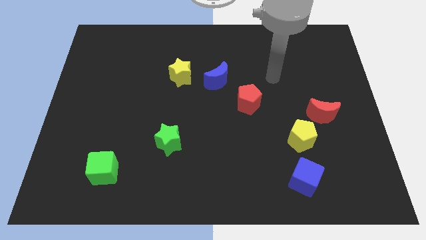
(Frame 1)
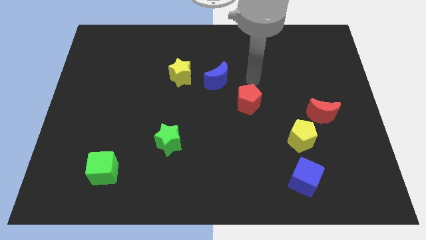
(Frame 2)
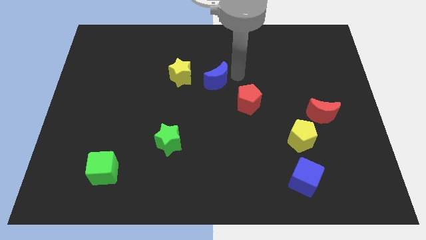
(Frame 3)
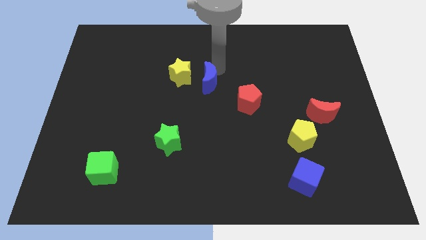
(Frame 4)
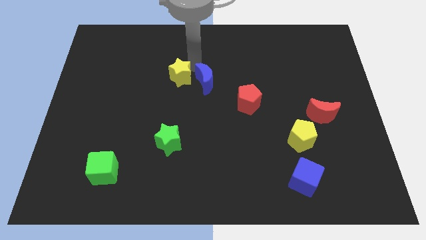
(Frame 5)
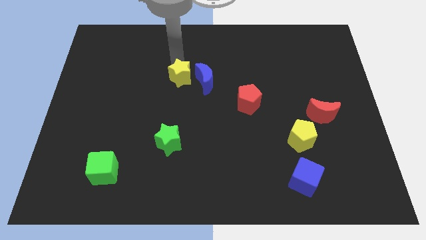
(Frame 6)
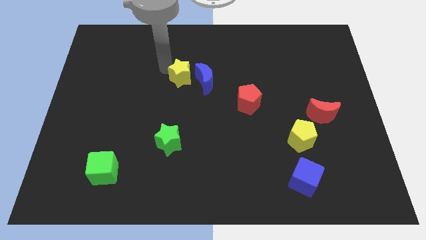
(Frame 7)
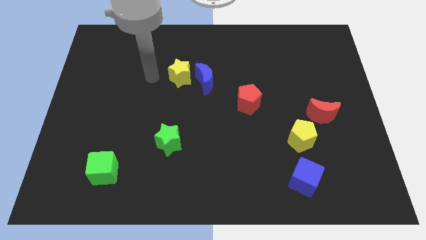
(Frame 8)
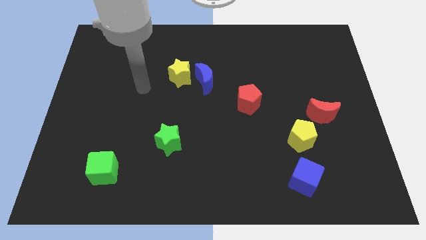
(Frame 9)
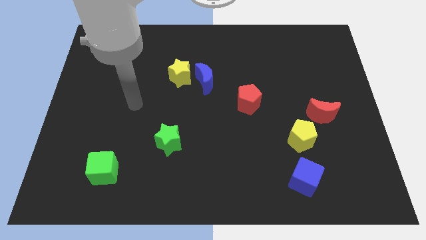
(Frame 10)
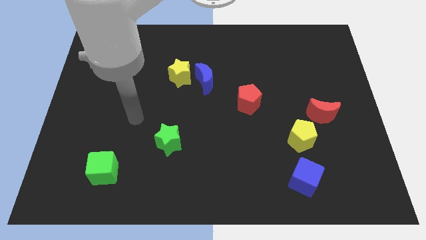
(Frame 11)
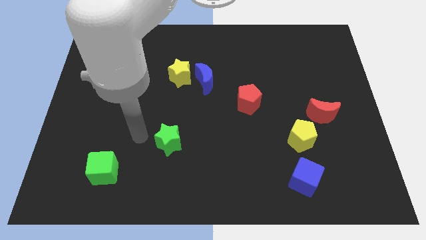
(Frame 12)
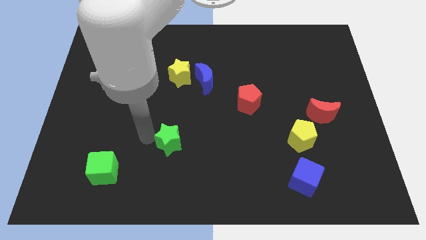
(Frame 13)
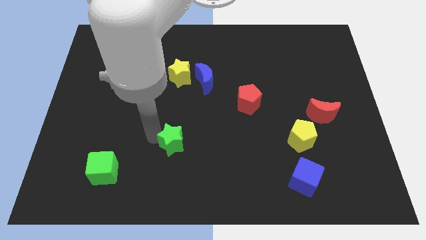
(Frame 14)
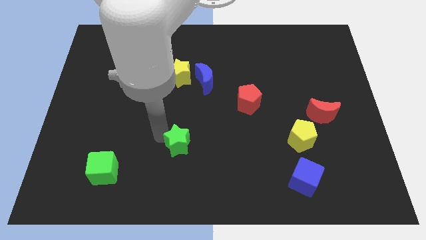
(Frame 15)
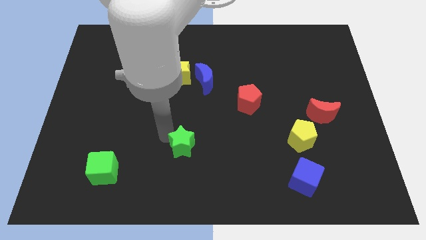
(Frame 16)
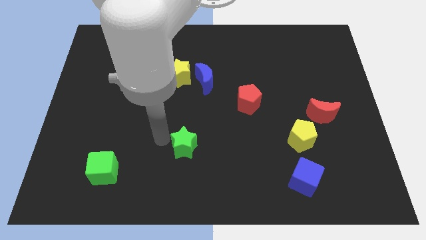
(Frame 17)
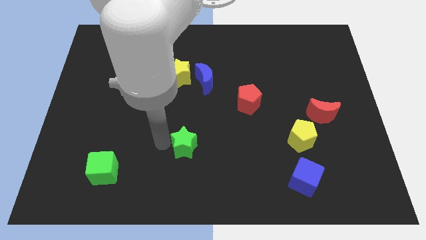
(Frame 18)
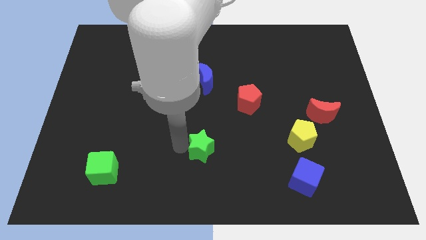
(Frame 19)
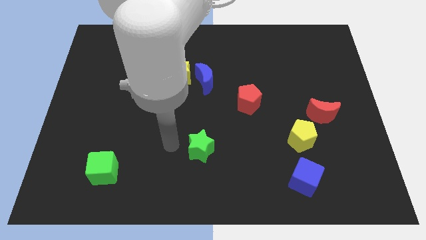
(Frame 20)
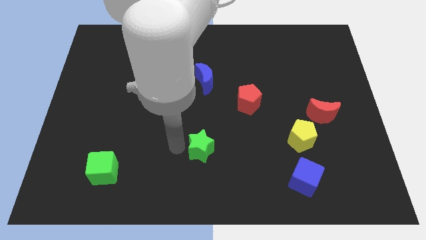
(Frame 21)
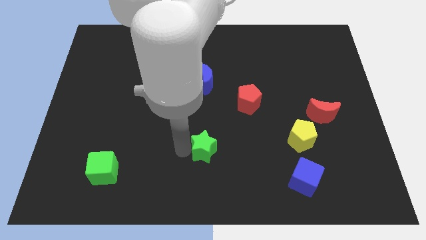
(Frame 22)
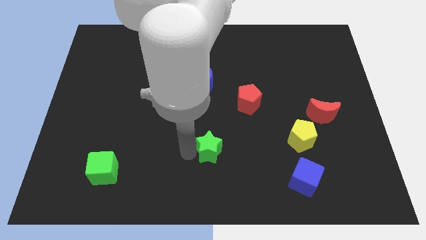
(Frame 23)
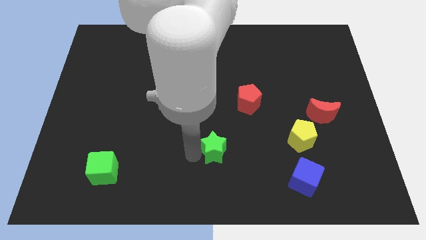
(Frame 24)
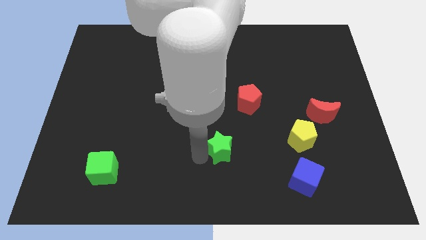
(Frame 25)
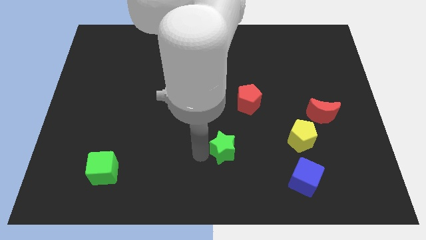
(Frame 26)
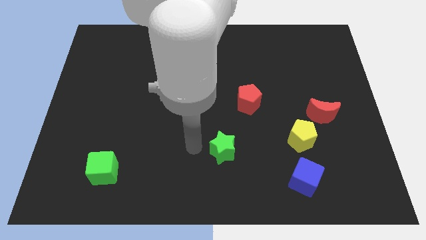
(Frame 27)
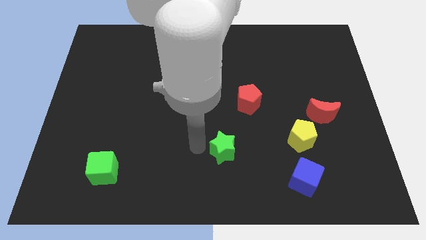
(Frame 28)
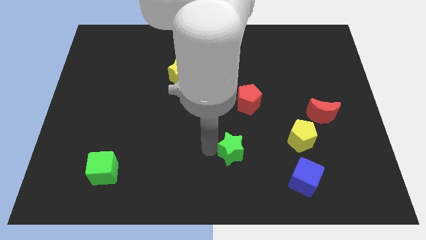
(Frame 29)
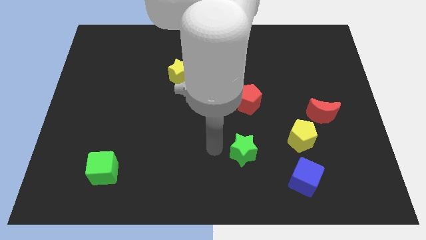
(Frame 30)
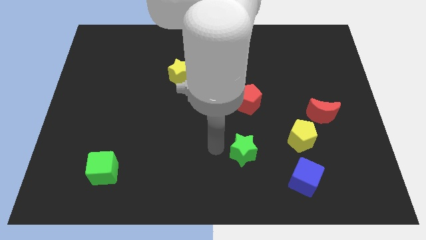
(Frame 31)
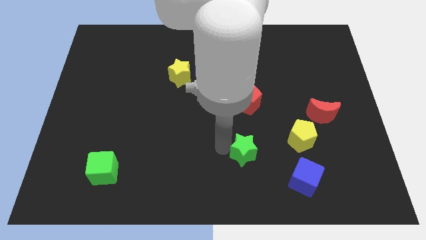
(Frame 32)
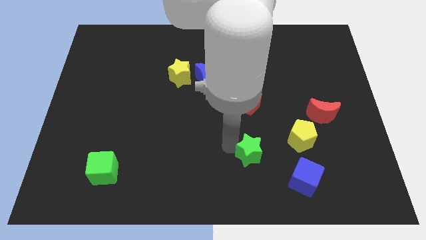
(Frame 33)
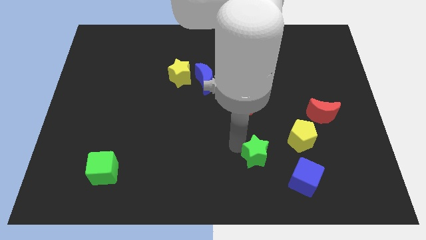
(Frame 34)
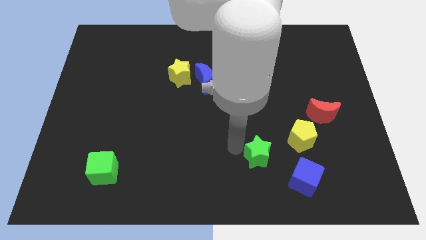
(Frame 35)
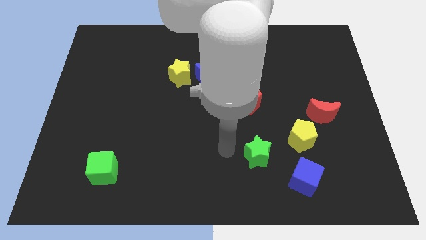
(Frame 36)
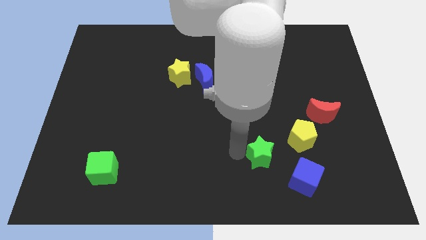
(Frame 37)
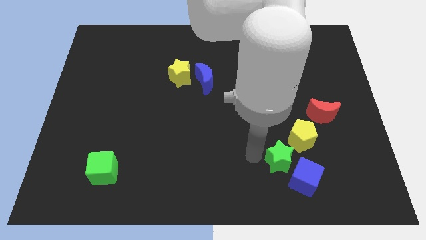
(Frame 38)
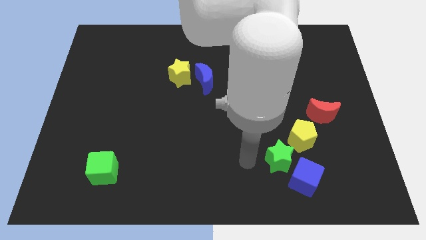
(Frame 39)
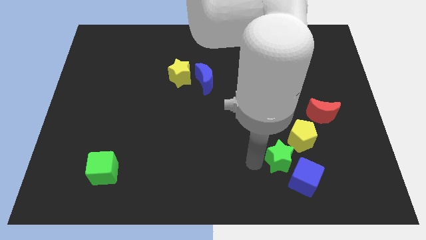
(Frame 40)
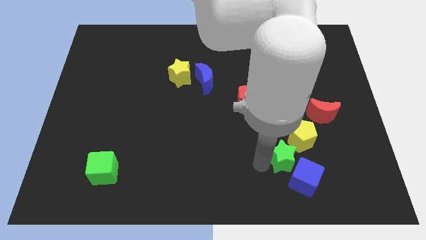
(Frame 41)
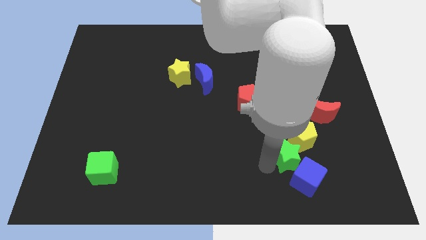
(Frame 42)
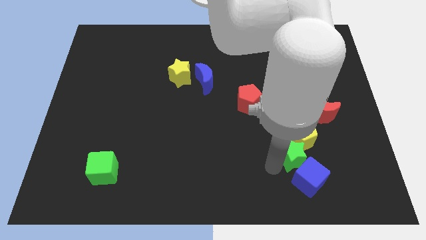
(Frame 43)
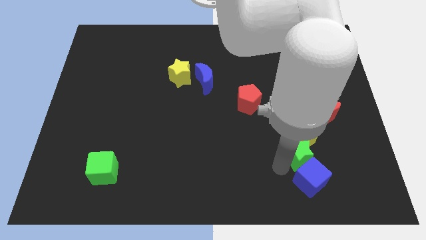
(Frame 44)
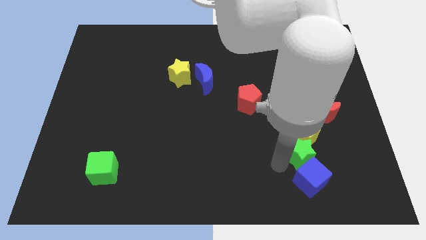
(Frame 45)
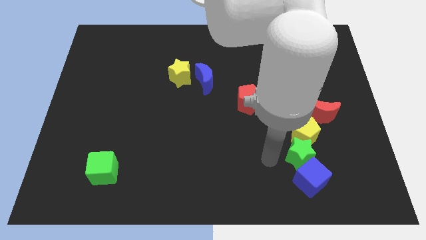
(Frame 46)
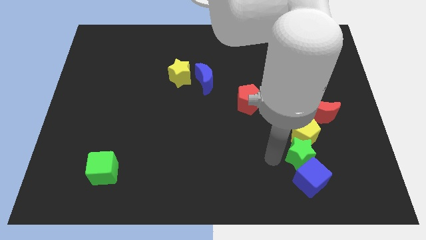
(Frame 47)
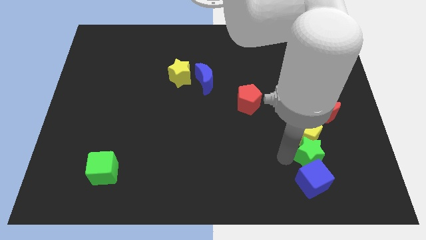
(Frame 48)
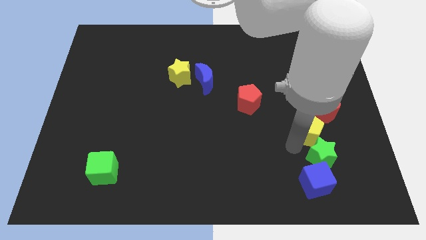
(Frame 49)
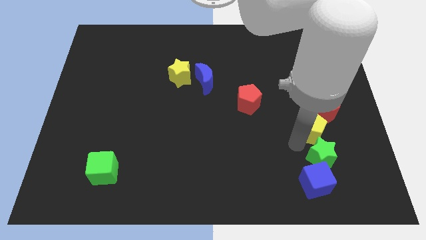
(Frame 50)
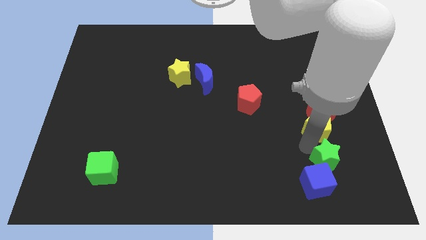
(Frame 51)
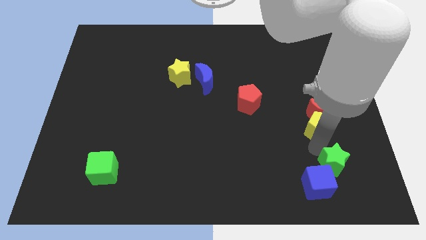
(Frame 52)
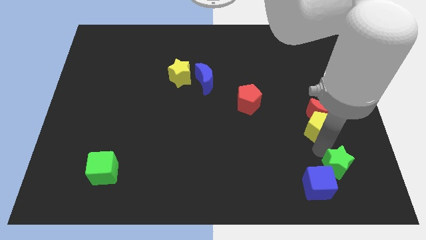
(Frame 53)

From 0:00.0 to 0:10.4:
slide the green star to the right side of the blue cube
